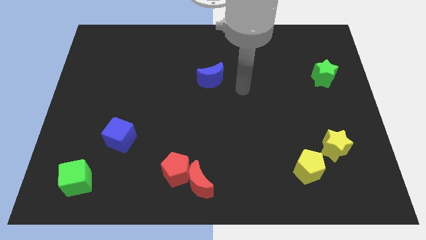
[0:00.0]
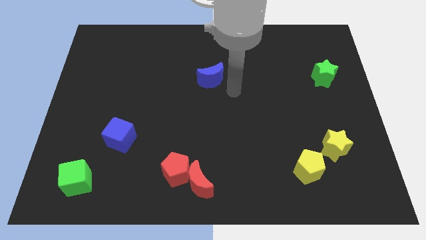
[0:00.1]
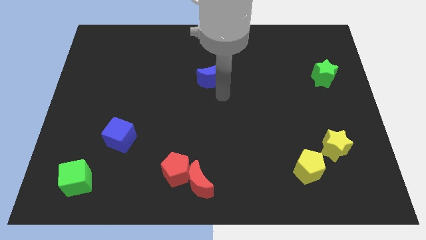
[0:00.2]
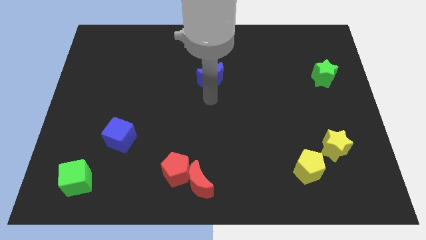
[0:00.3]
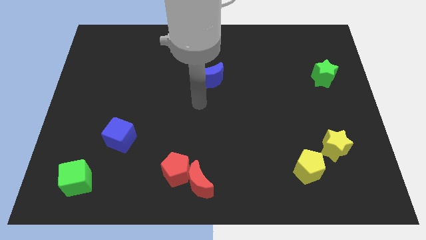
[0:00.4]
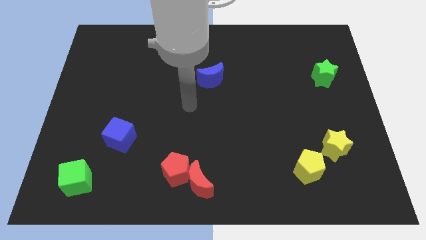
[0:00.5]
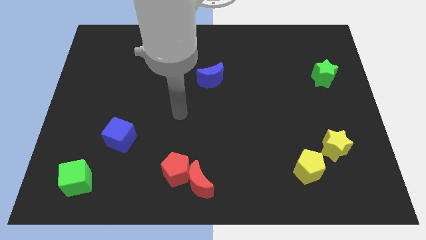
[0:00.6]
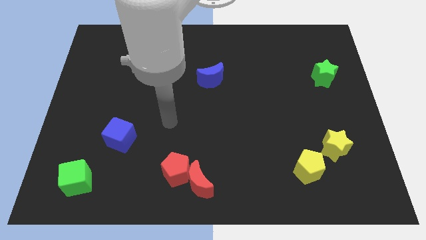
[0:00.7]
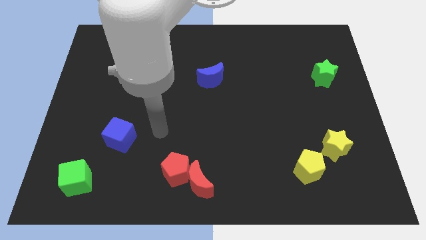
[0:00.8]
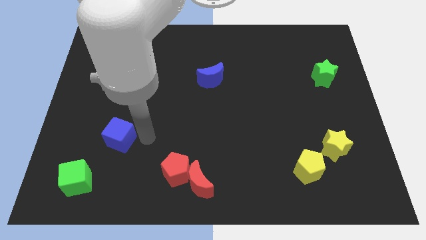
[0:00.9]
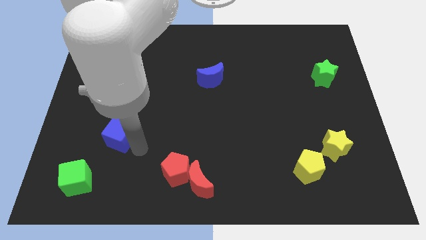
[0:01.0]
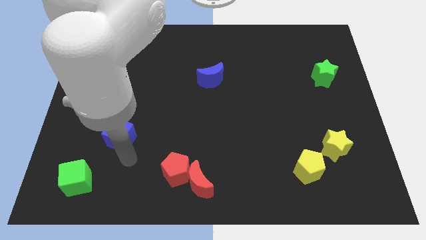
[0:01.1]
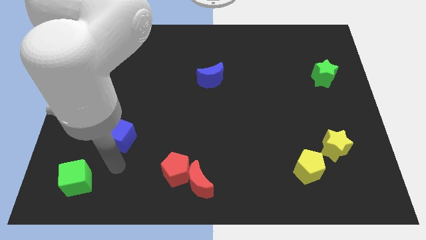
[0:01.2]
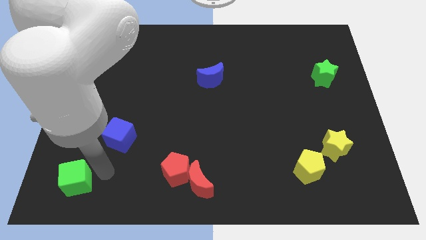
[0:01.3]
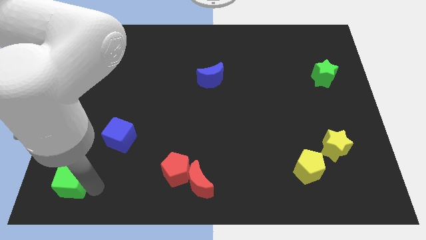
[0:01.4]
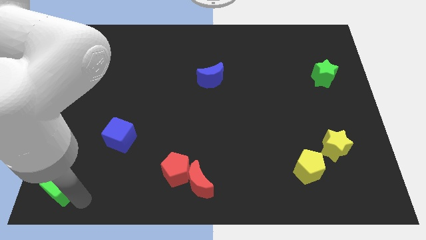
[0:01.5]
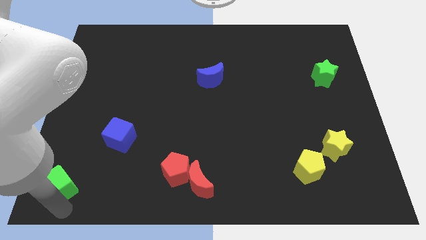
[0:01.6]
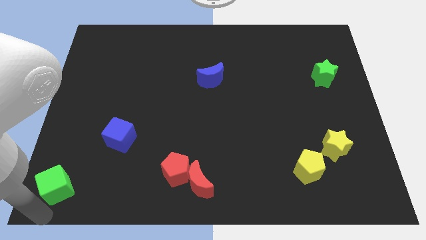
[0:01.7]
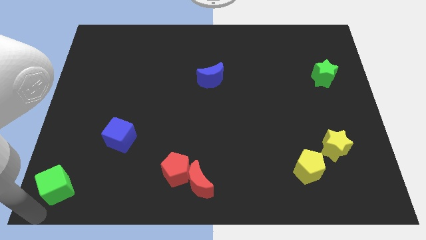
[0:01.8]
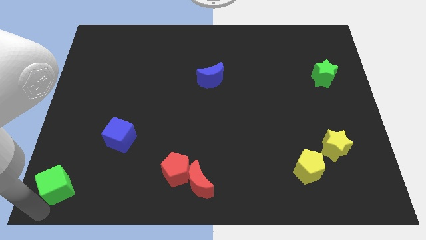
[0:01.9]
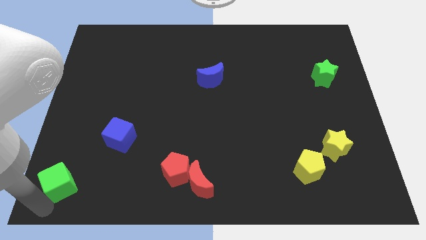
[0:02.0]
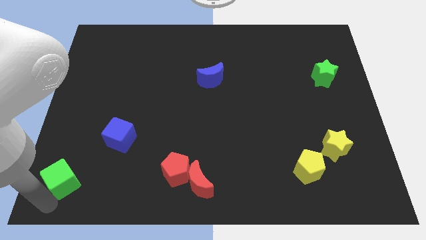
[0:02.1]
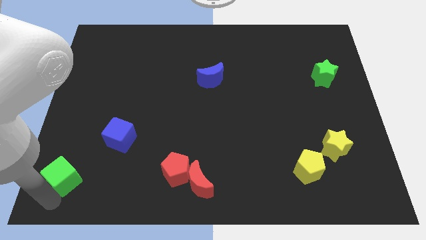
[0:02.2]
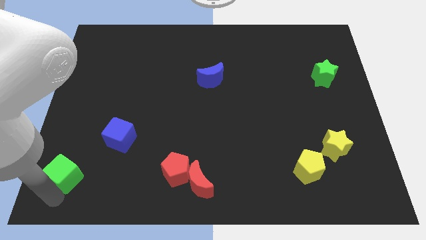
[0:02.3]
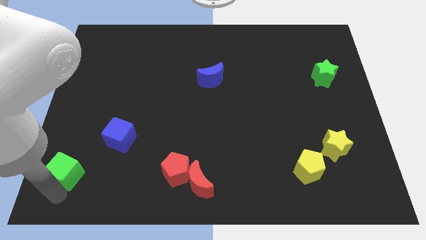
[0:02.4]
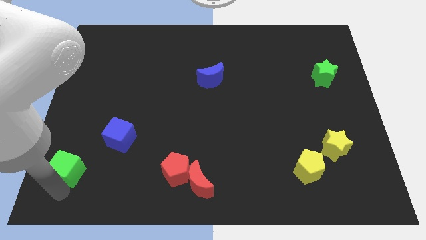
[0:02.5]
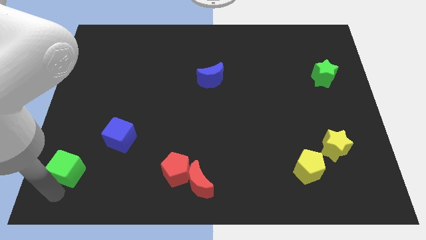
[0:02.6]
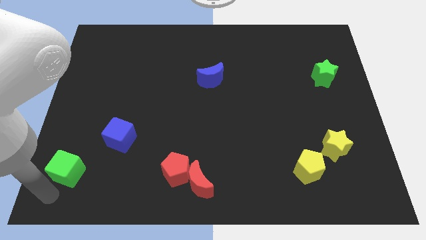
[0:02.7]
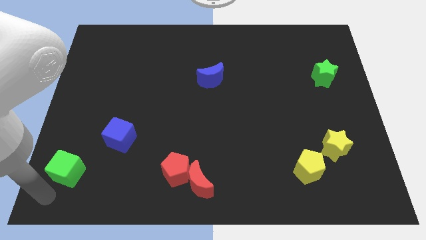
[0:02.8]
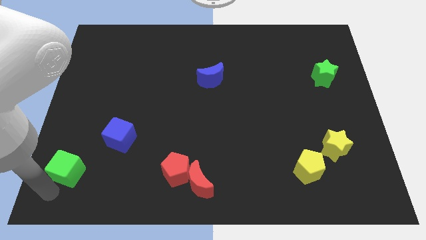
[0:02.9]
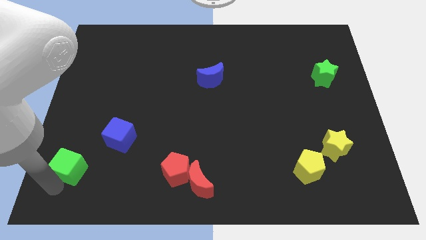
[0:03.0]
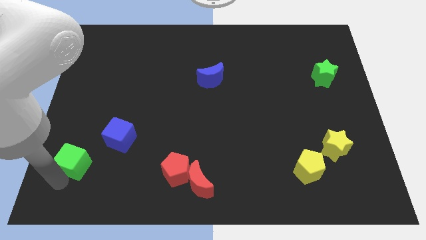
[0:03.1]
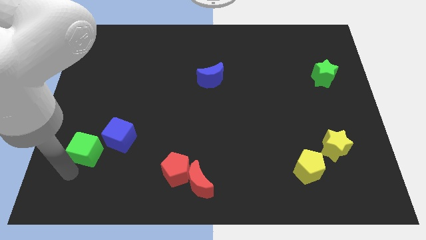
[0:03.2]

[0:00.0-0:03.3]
slightly move the green cube upwards

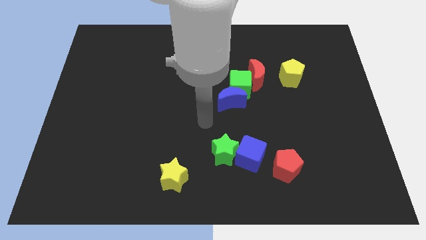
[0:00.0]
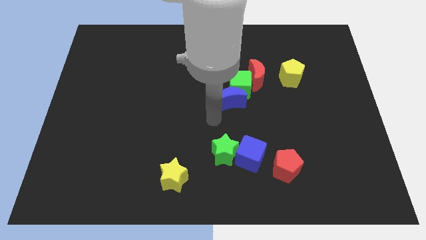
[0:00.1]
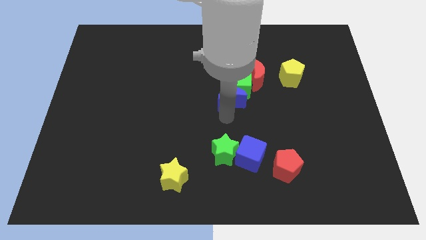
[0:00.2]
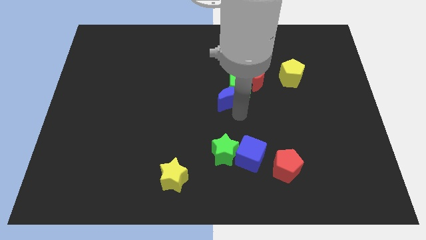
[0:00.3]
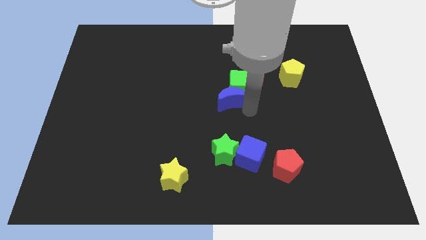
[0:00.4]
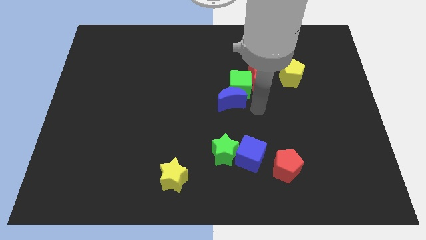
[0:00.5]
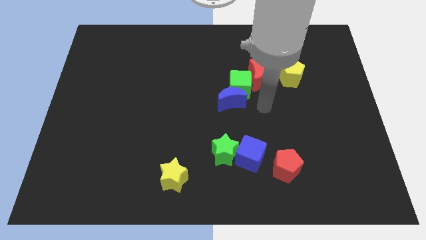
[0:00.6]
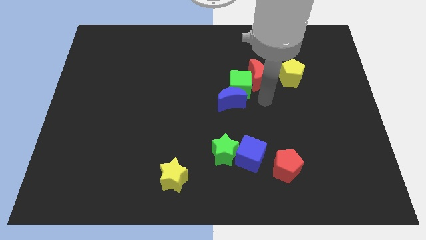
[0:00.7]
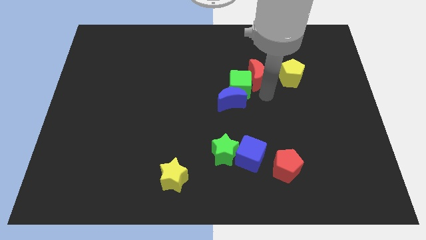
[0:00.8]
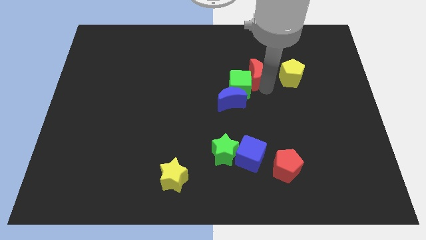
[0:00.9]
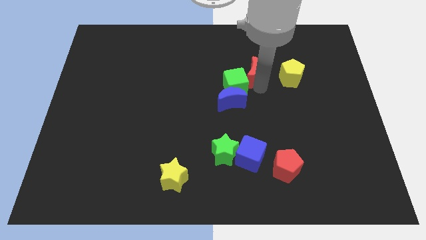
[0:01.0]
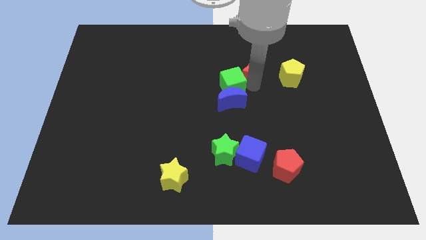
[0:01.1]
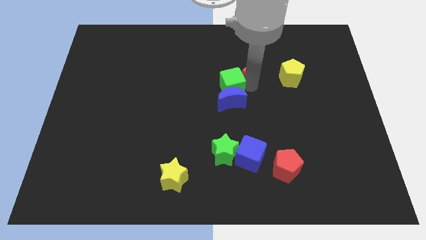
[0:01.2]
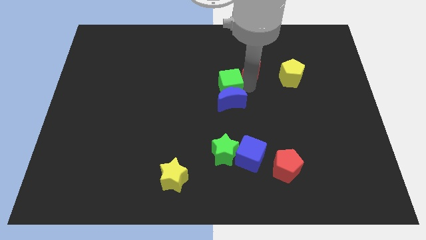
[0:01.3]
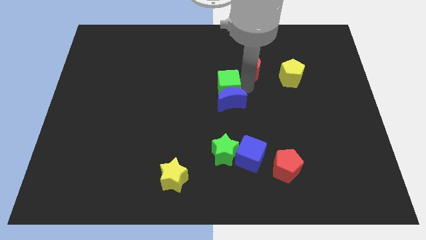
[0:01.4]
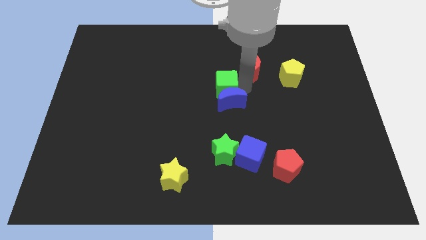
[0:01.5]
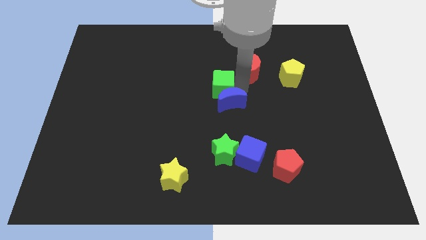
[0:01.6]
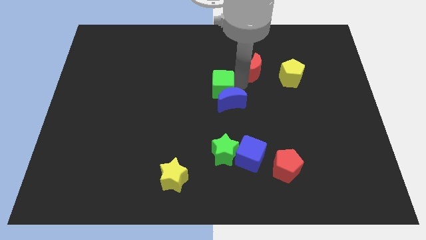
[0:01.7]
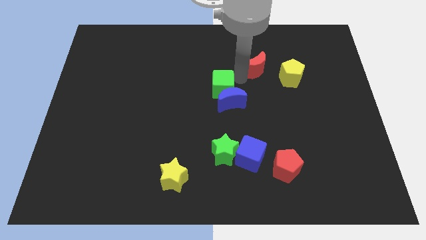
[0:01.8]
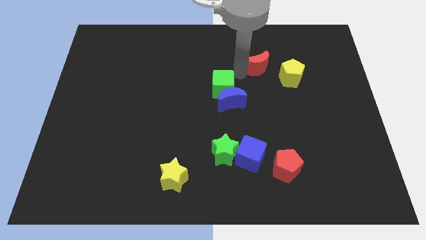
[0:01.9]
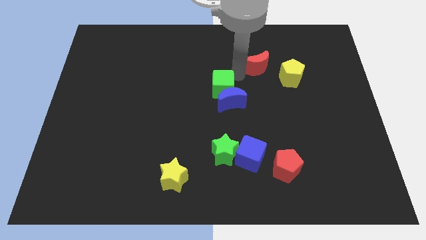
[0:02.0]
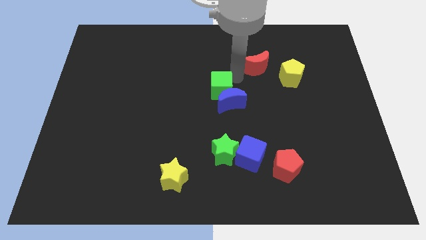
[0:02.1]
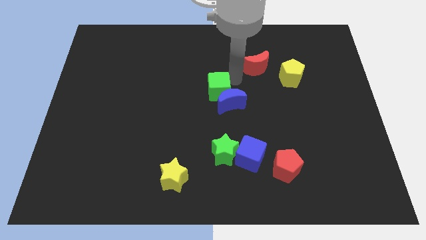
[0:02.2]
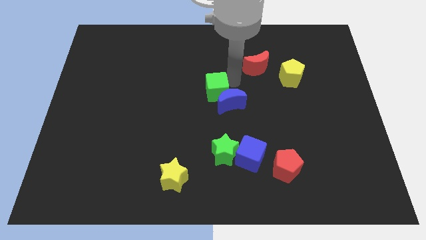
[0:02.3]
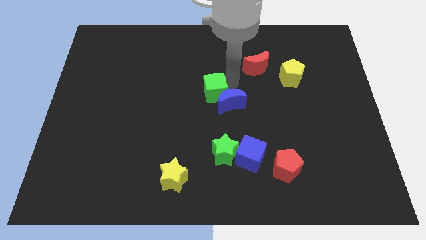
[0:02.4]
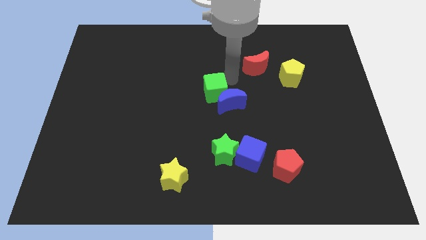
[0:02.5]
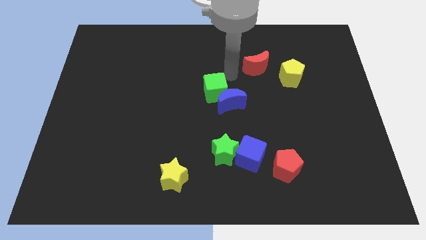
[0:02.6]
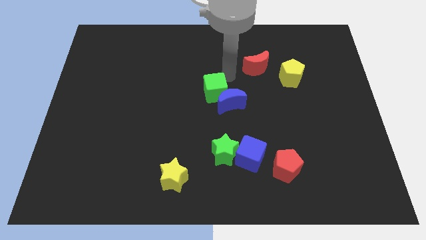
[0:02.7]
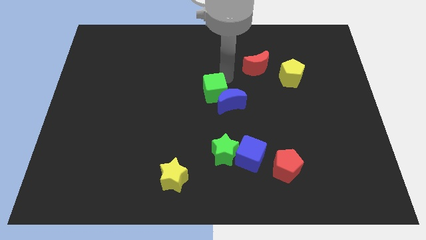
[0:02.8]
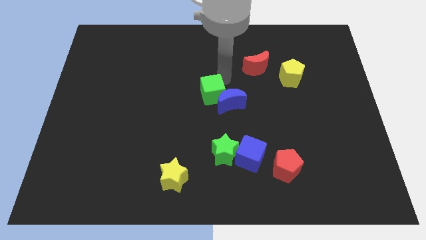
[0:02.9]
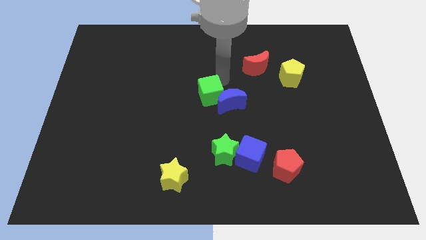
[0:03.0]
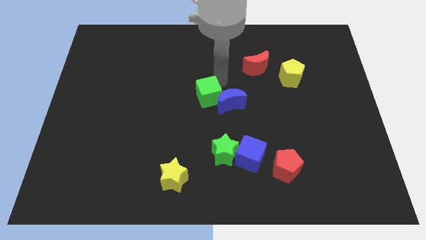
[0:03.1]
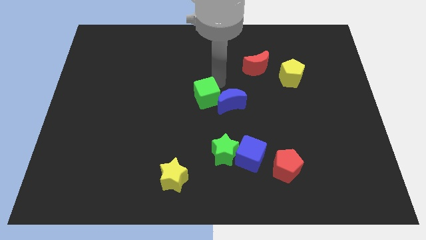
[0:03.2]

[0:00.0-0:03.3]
slide the green cube a bit down and left diagonally

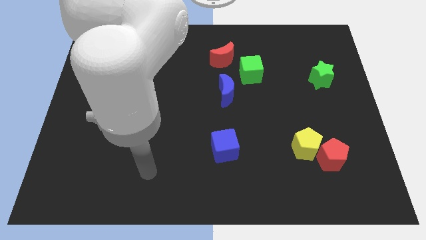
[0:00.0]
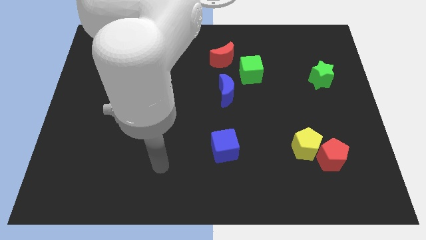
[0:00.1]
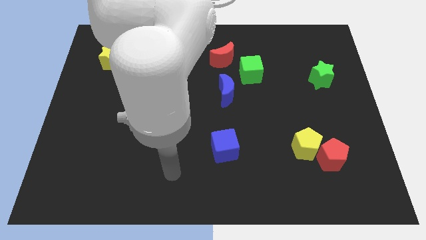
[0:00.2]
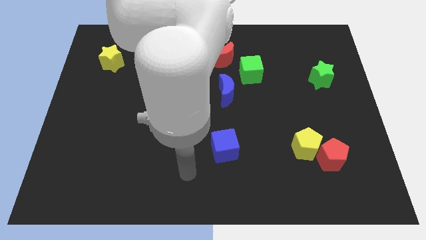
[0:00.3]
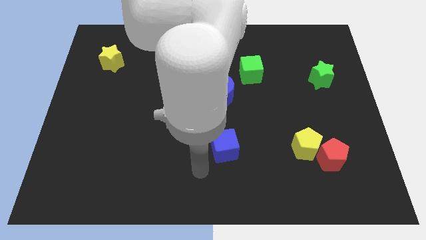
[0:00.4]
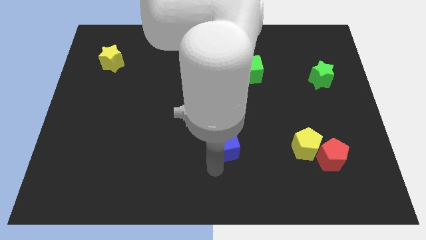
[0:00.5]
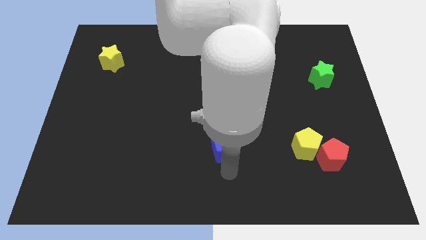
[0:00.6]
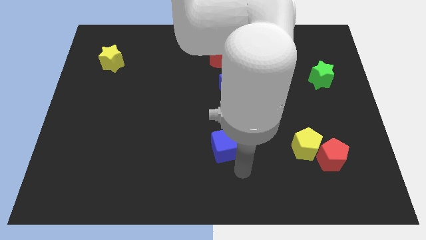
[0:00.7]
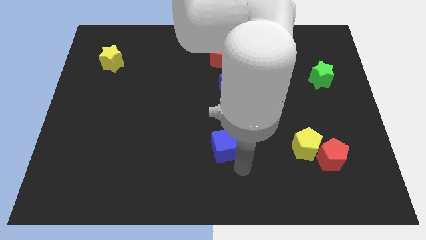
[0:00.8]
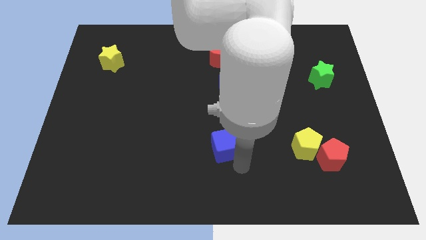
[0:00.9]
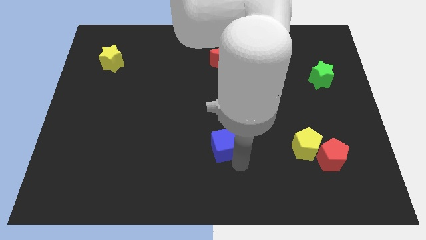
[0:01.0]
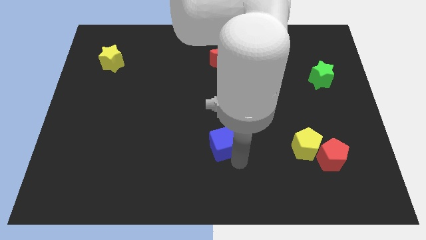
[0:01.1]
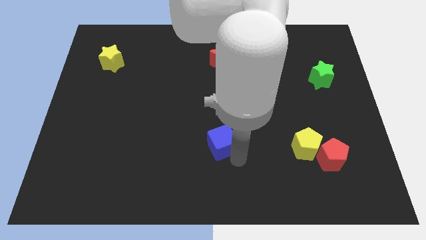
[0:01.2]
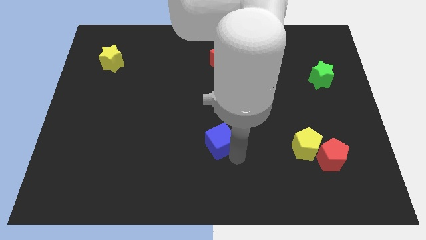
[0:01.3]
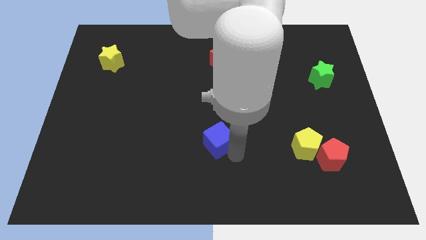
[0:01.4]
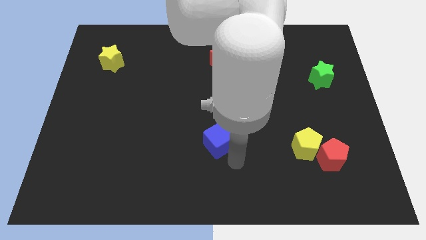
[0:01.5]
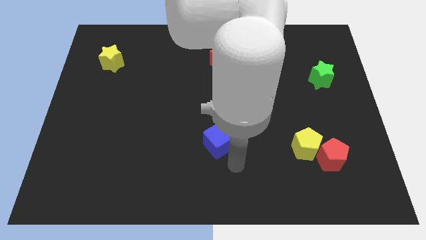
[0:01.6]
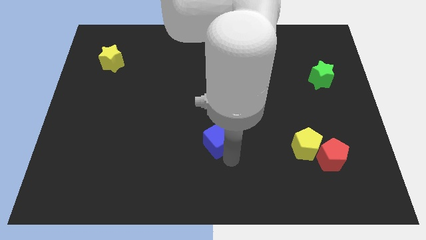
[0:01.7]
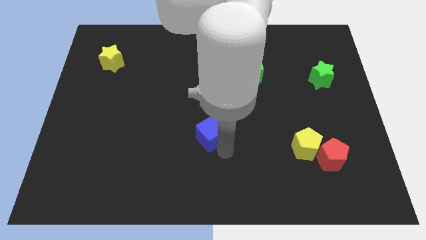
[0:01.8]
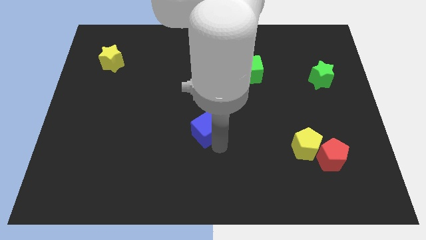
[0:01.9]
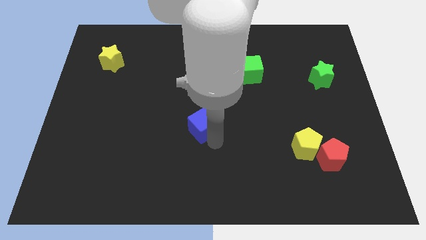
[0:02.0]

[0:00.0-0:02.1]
slightly move the blue cube upwards and to the left diagonally
